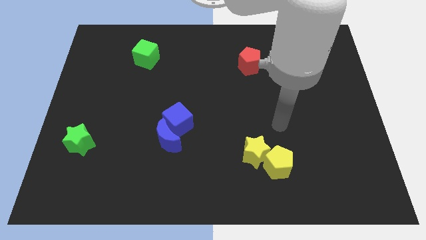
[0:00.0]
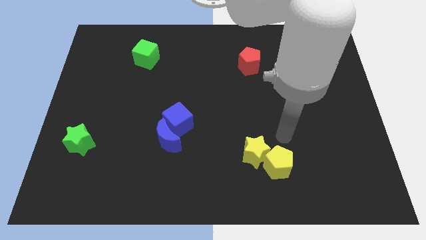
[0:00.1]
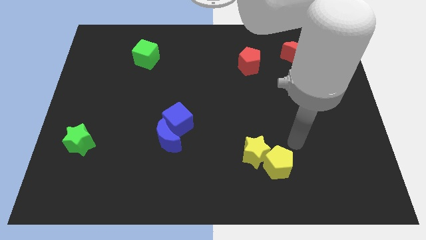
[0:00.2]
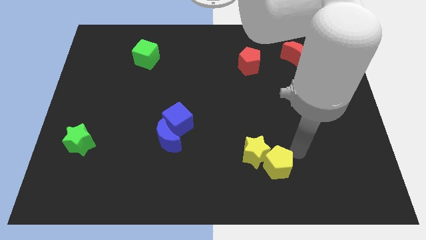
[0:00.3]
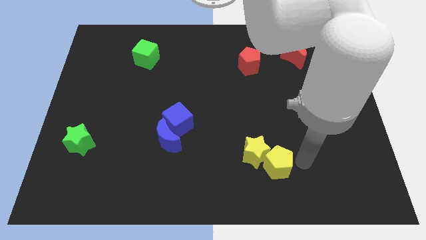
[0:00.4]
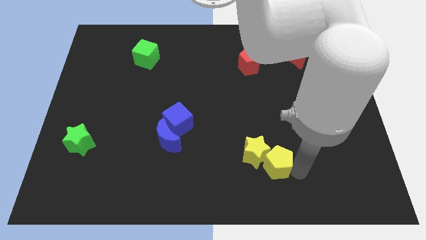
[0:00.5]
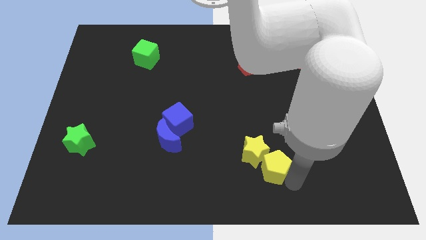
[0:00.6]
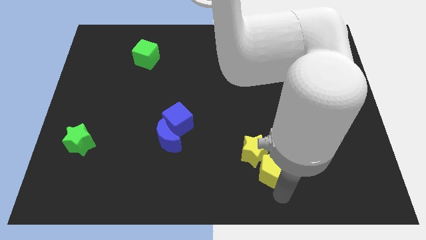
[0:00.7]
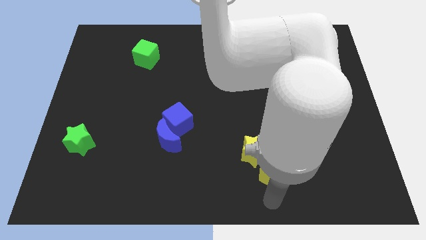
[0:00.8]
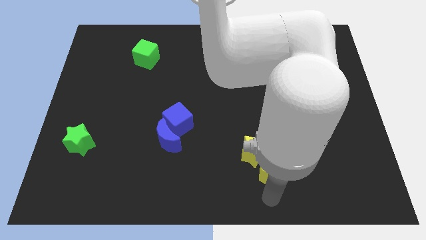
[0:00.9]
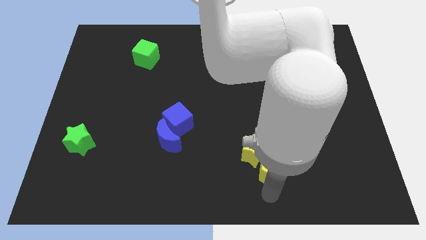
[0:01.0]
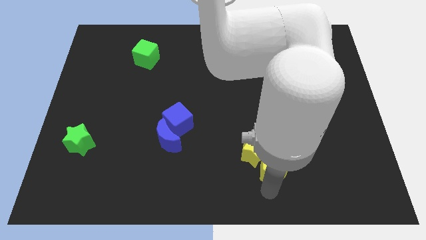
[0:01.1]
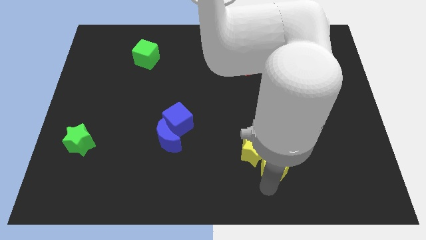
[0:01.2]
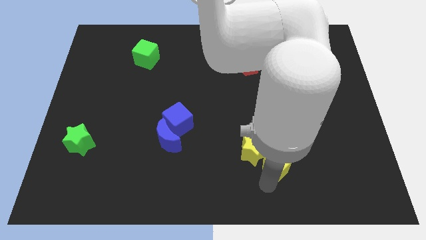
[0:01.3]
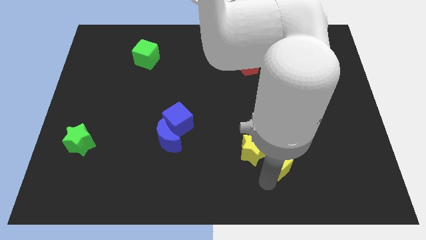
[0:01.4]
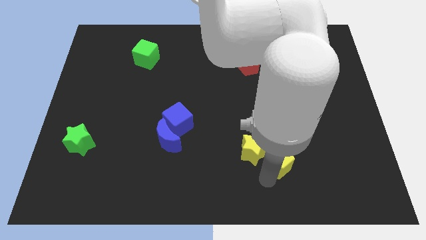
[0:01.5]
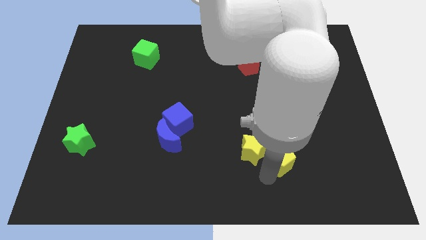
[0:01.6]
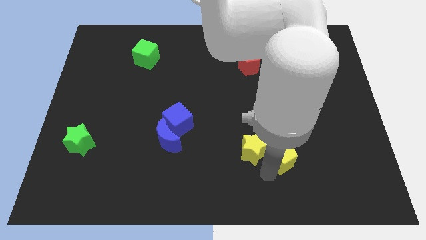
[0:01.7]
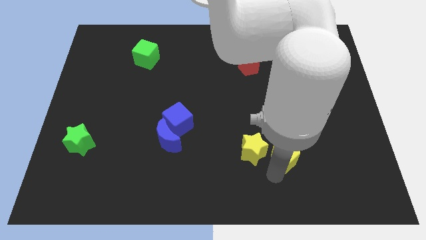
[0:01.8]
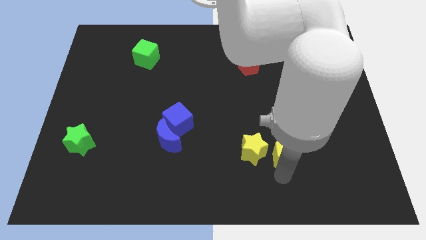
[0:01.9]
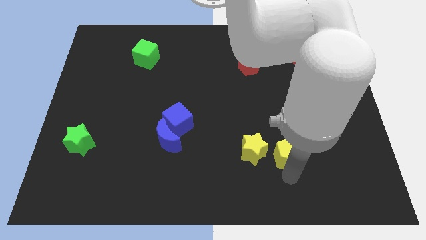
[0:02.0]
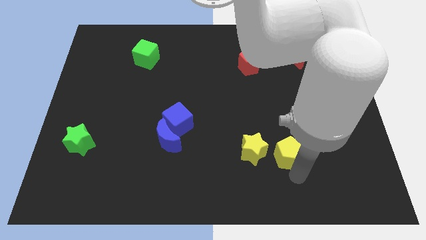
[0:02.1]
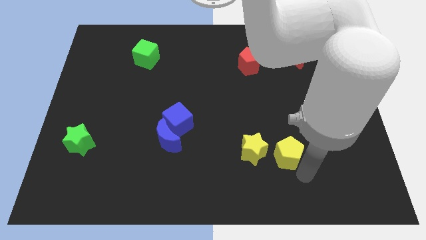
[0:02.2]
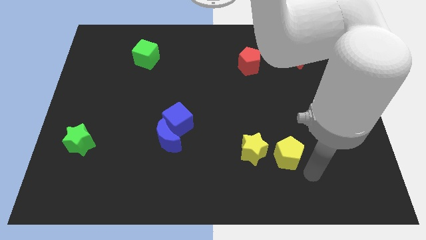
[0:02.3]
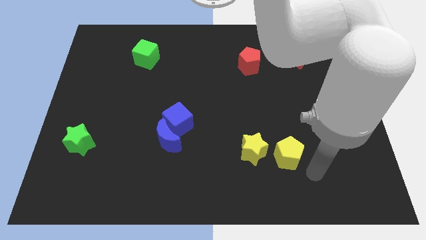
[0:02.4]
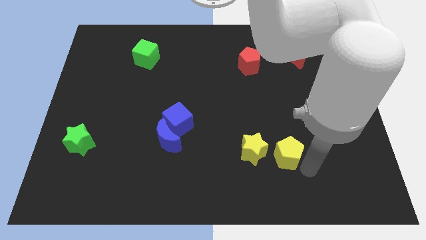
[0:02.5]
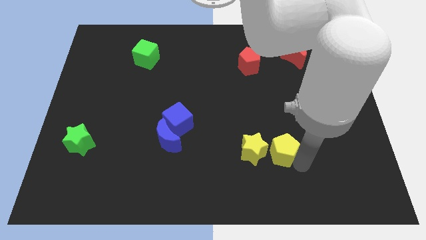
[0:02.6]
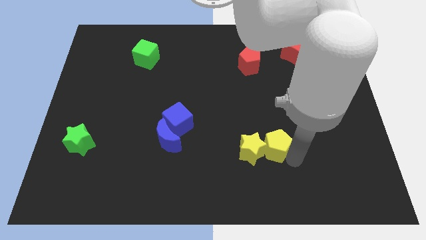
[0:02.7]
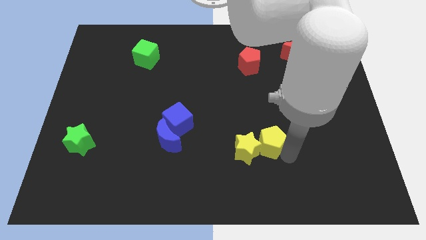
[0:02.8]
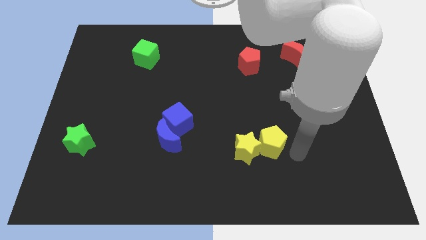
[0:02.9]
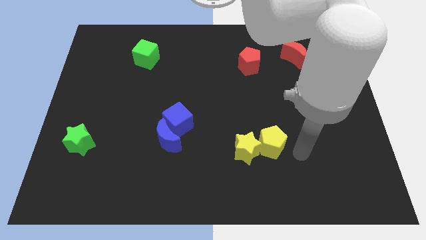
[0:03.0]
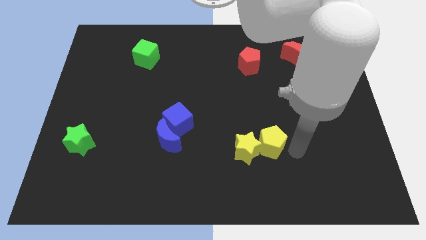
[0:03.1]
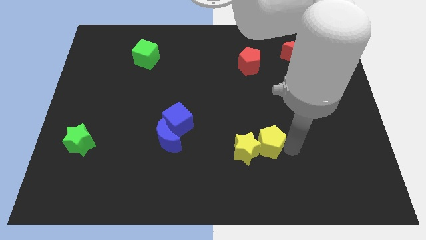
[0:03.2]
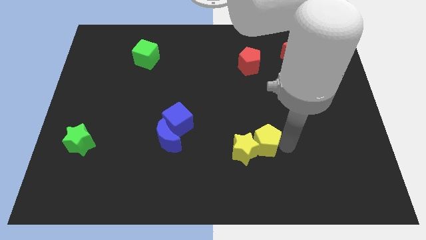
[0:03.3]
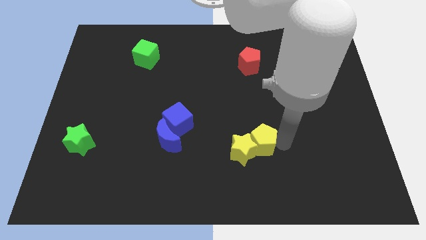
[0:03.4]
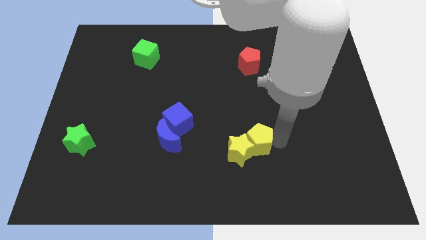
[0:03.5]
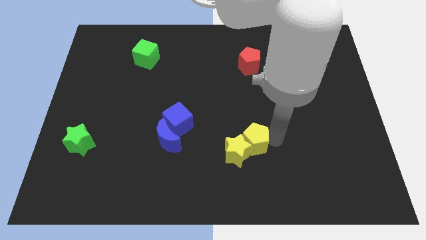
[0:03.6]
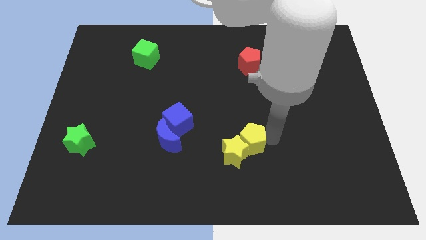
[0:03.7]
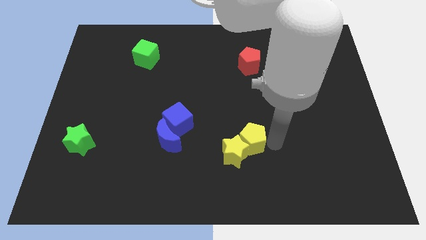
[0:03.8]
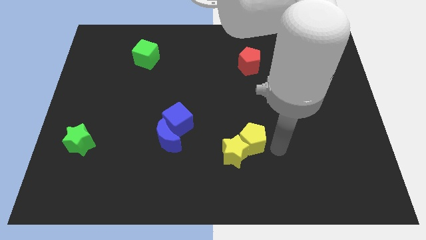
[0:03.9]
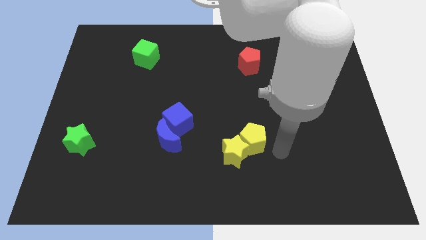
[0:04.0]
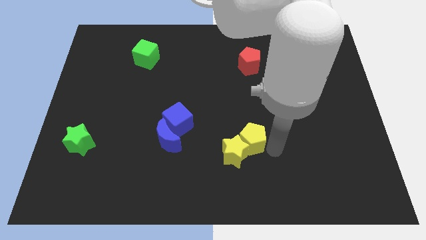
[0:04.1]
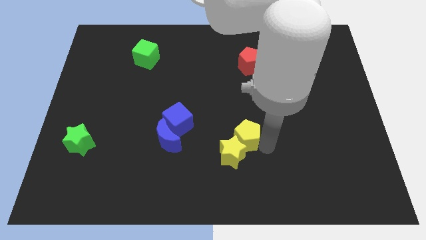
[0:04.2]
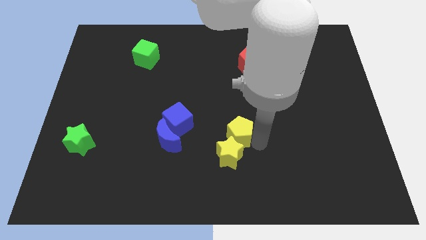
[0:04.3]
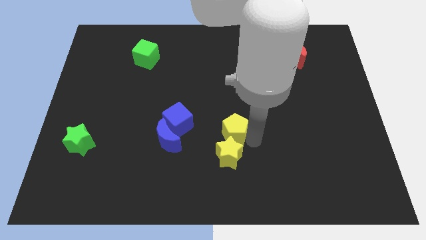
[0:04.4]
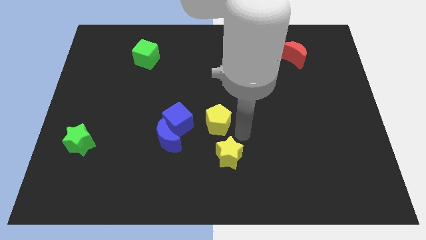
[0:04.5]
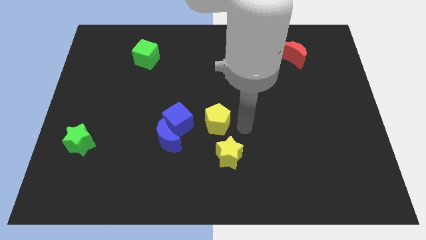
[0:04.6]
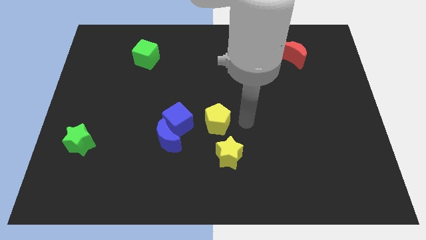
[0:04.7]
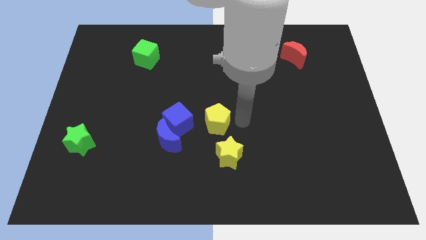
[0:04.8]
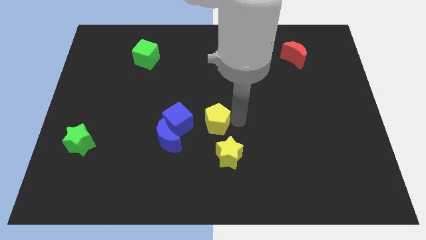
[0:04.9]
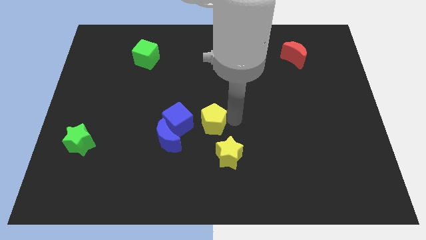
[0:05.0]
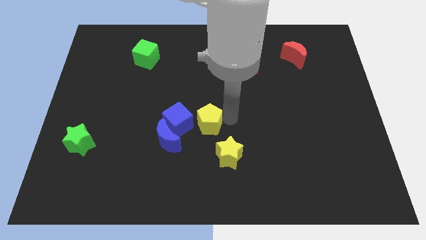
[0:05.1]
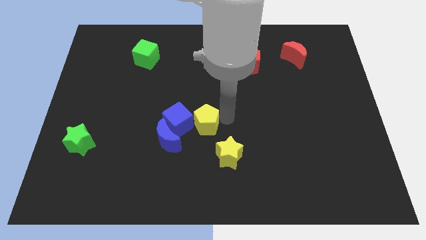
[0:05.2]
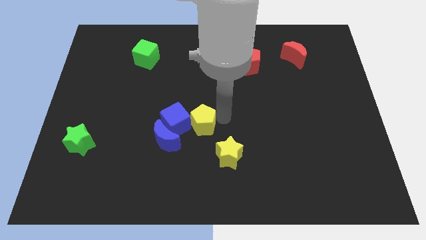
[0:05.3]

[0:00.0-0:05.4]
push the yellow pentagon close to the blue cube

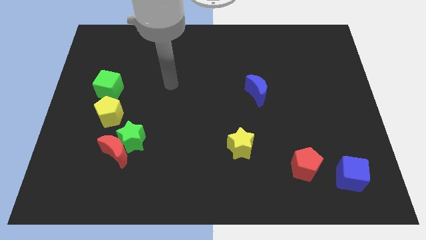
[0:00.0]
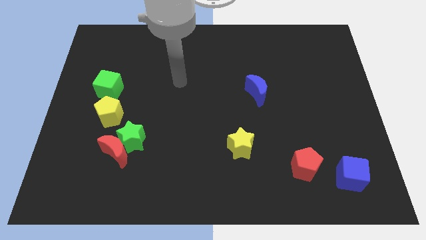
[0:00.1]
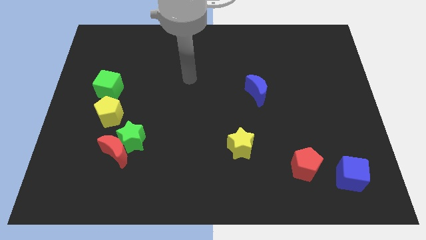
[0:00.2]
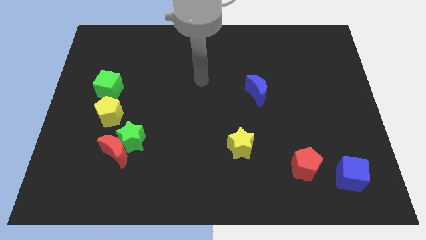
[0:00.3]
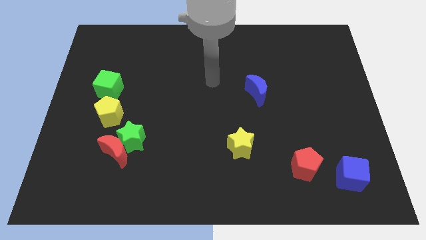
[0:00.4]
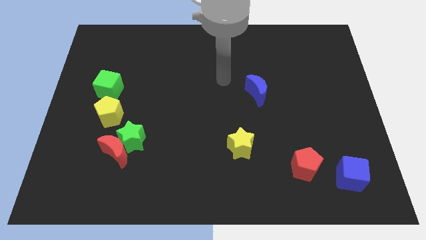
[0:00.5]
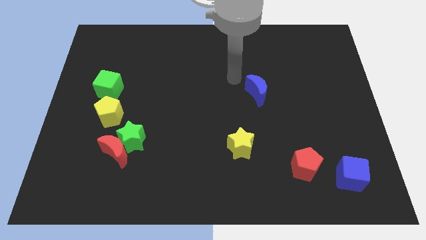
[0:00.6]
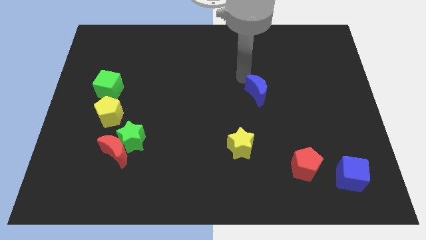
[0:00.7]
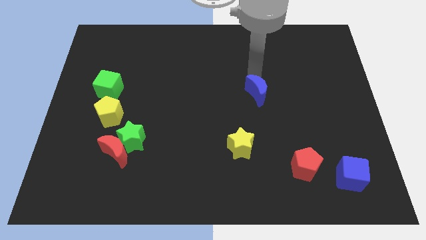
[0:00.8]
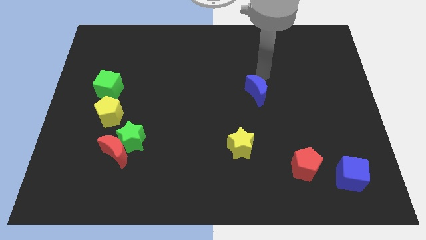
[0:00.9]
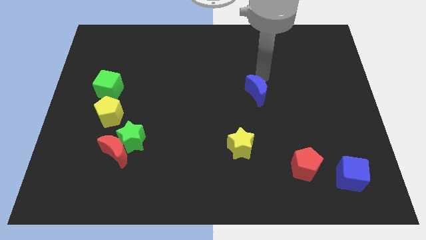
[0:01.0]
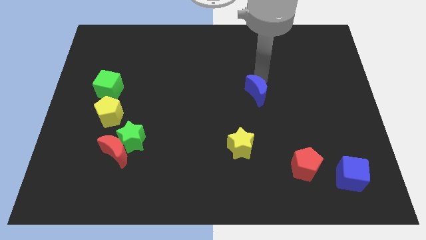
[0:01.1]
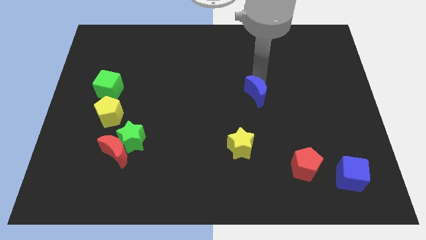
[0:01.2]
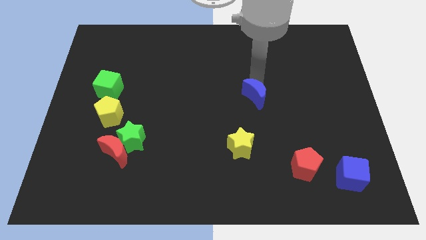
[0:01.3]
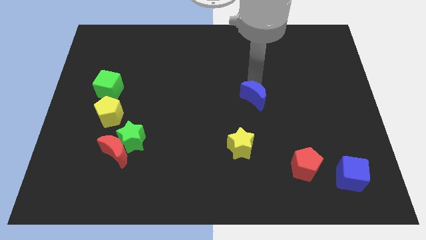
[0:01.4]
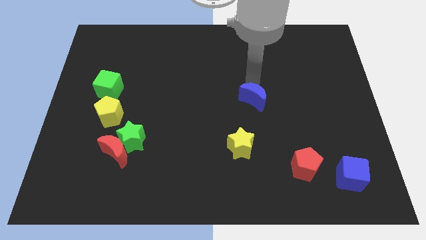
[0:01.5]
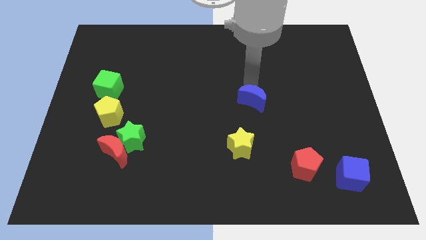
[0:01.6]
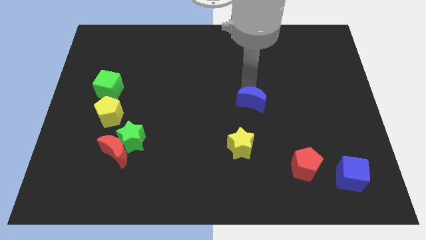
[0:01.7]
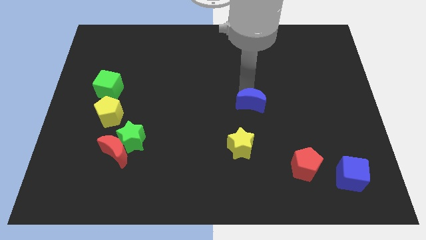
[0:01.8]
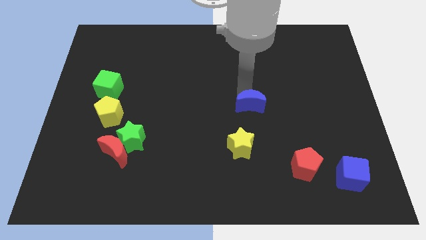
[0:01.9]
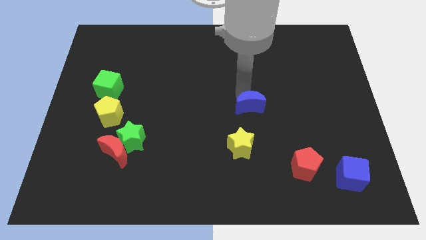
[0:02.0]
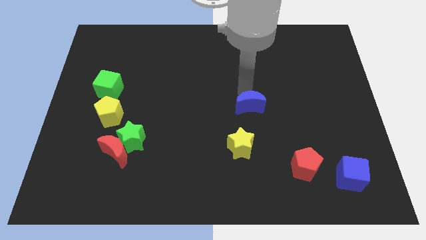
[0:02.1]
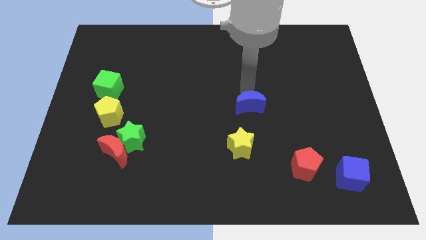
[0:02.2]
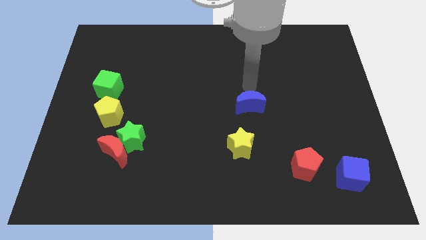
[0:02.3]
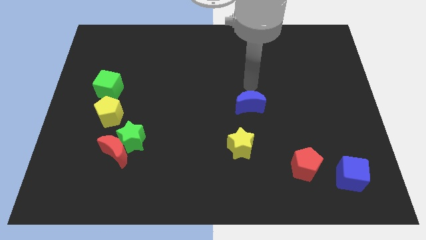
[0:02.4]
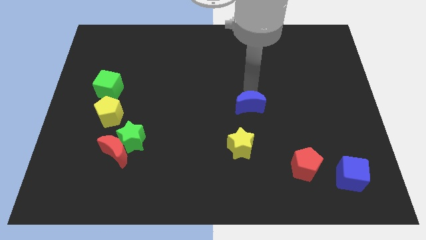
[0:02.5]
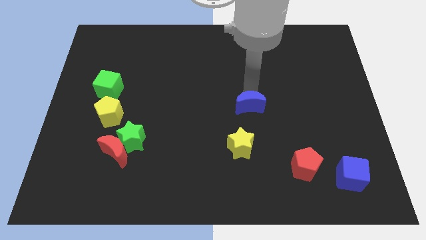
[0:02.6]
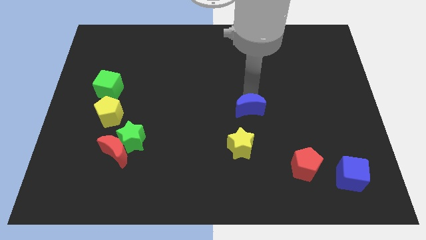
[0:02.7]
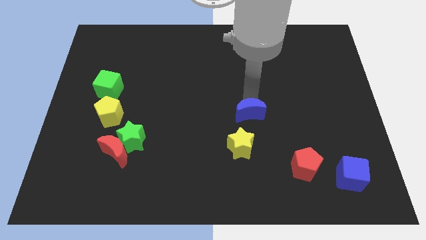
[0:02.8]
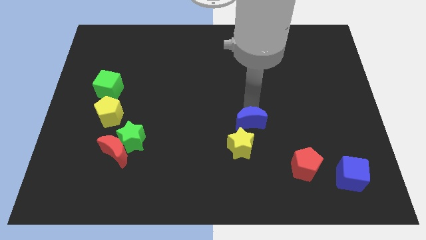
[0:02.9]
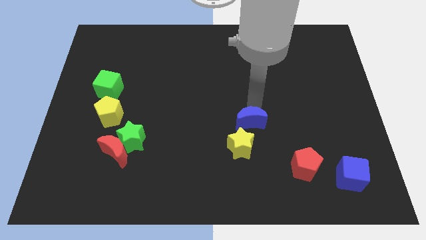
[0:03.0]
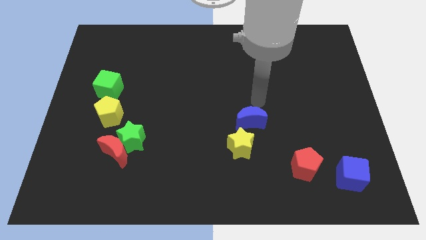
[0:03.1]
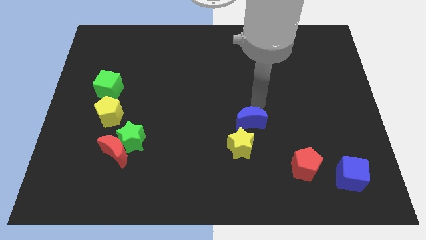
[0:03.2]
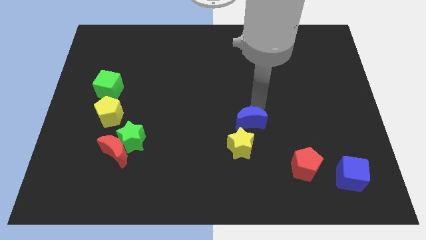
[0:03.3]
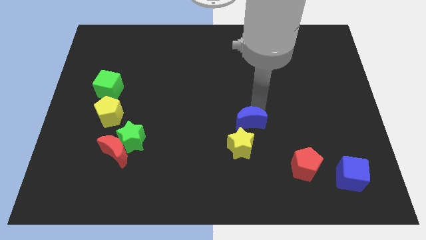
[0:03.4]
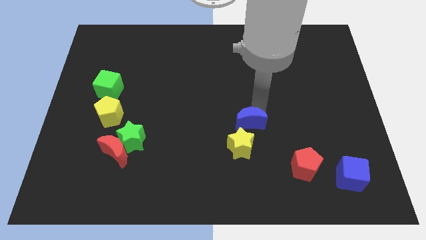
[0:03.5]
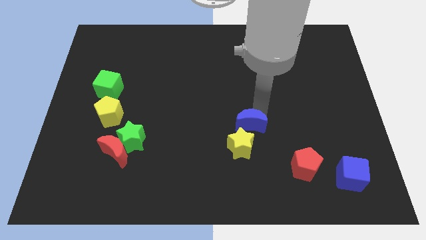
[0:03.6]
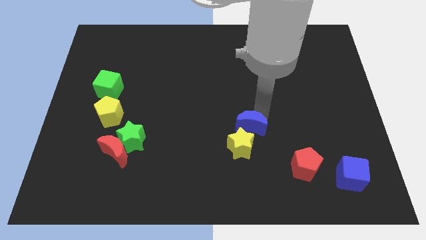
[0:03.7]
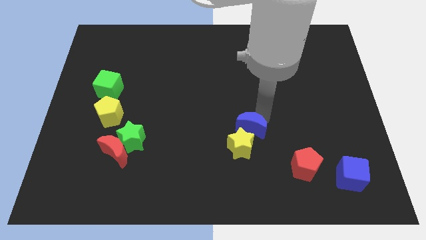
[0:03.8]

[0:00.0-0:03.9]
put the blue moon next to the yellow star
